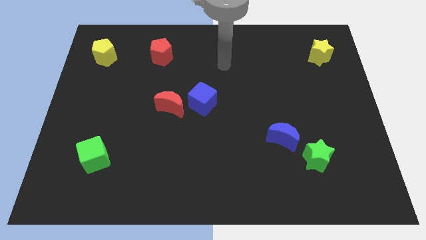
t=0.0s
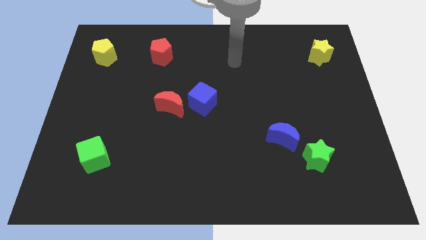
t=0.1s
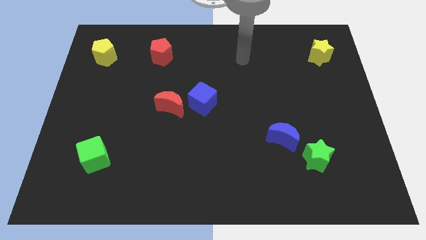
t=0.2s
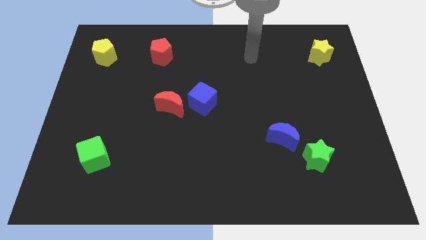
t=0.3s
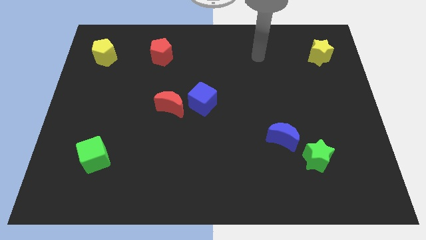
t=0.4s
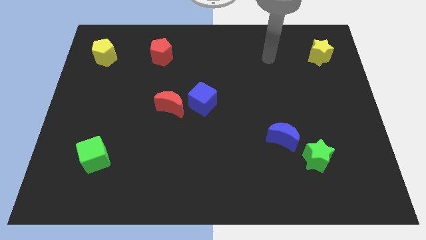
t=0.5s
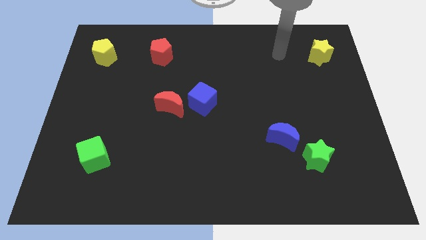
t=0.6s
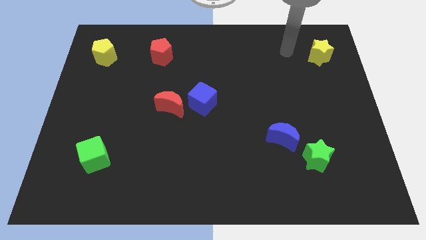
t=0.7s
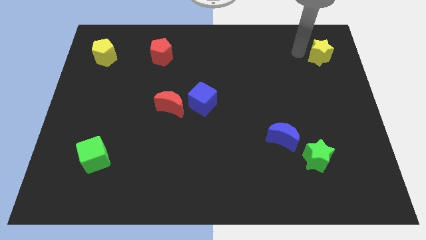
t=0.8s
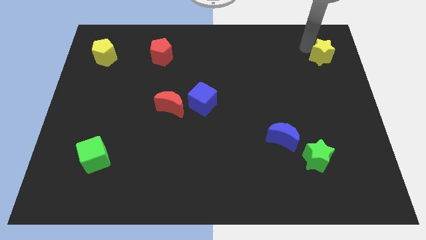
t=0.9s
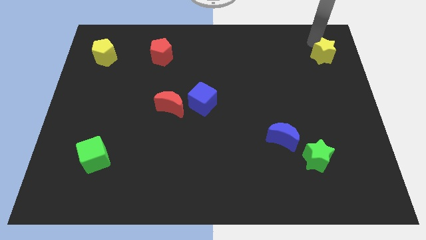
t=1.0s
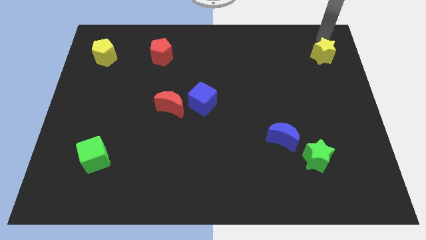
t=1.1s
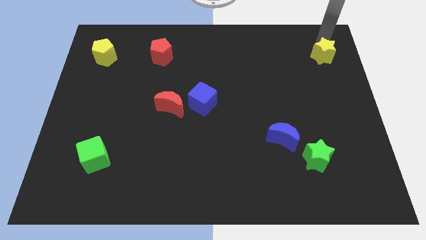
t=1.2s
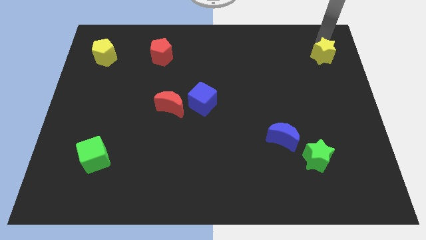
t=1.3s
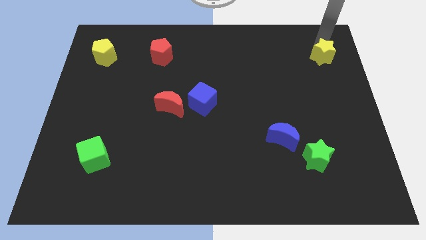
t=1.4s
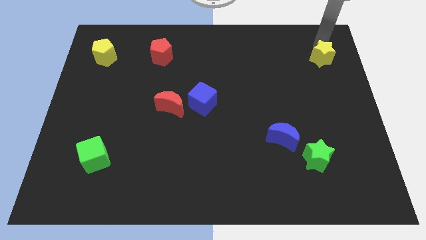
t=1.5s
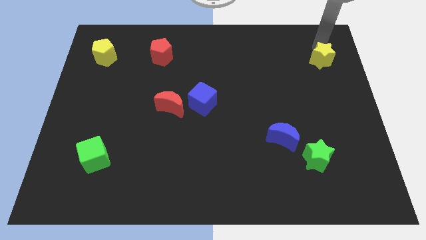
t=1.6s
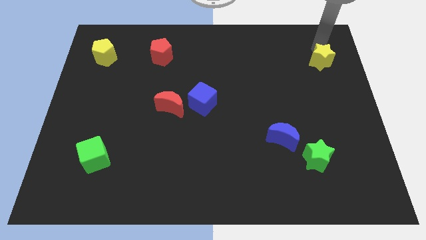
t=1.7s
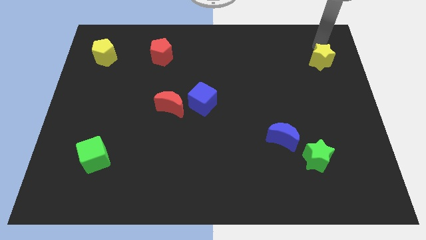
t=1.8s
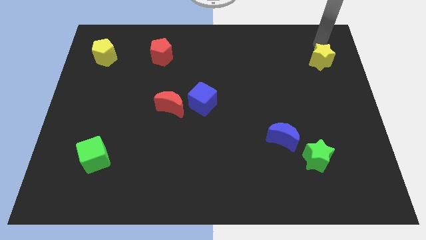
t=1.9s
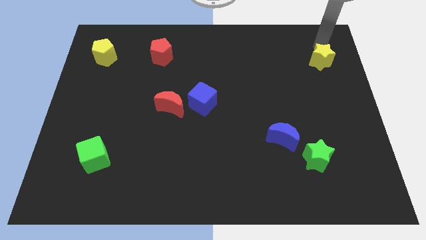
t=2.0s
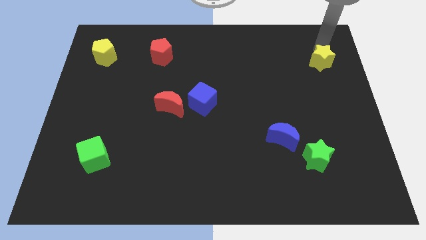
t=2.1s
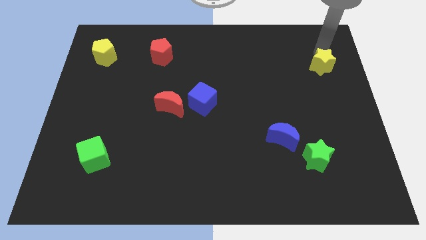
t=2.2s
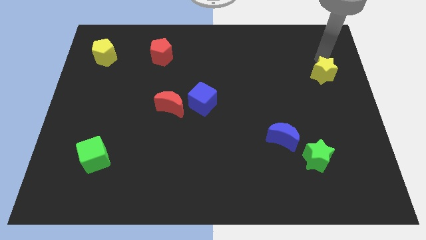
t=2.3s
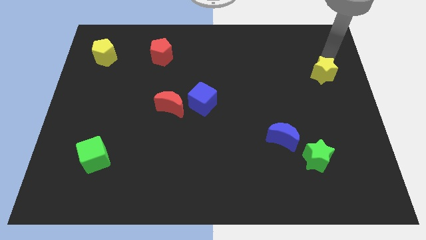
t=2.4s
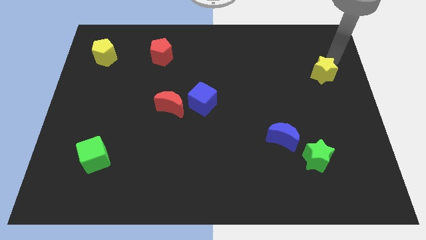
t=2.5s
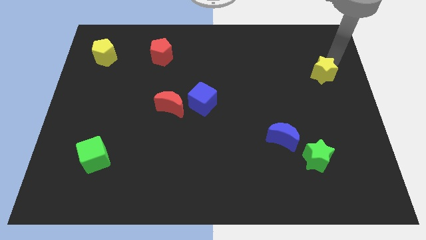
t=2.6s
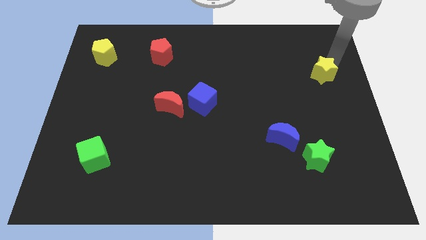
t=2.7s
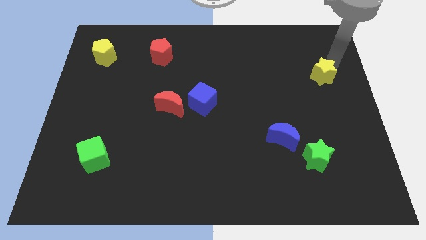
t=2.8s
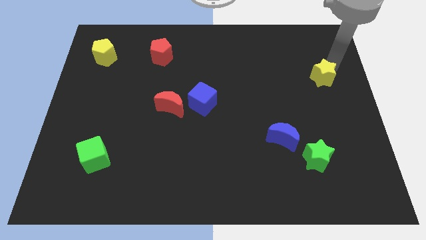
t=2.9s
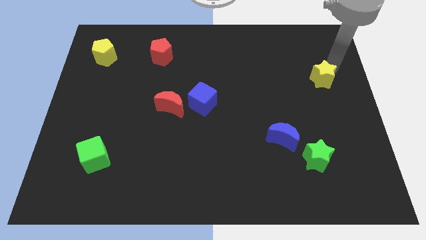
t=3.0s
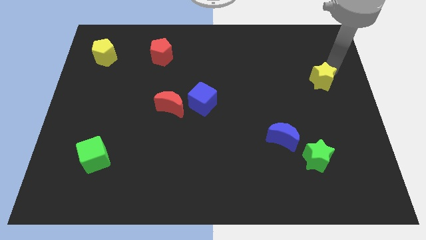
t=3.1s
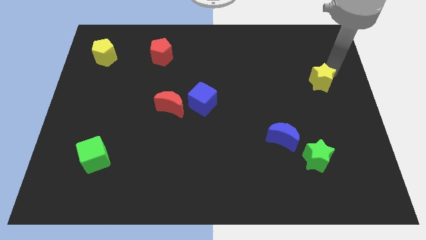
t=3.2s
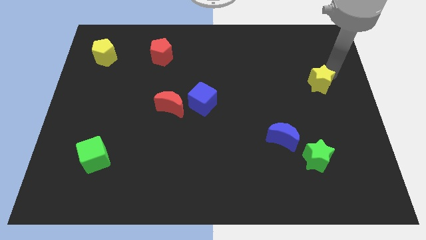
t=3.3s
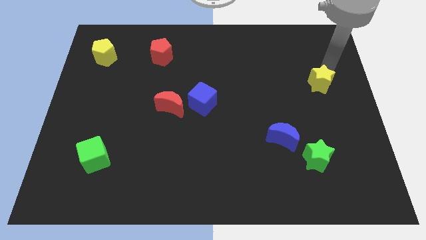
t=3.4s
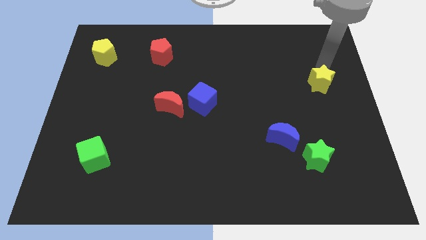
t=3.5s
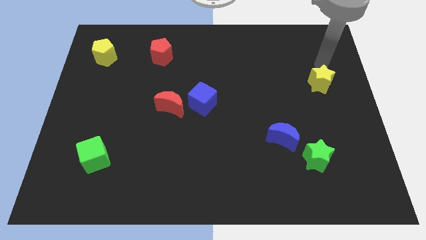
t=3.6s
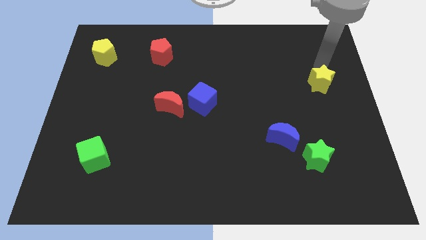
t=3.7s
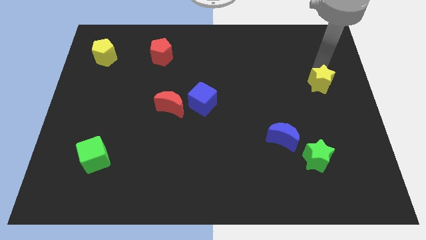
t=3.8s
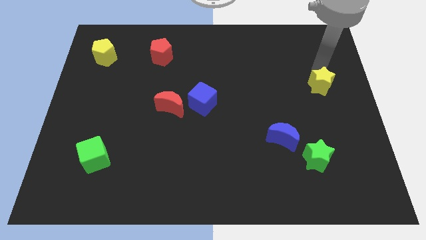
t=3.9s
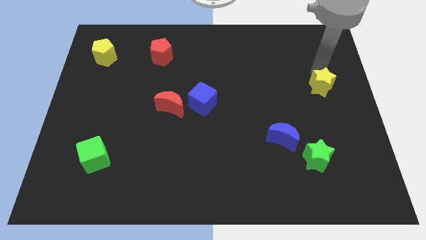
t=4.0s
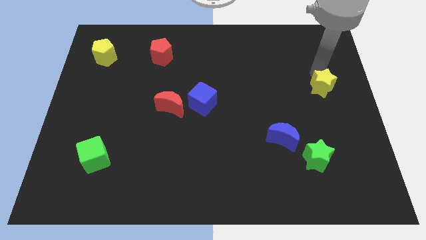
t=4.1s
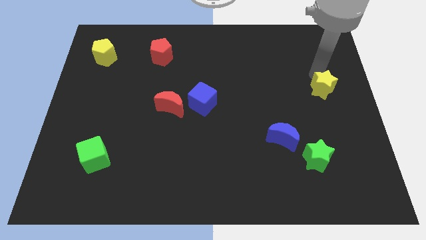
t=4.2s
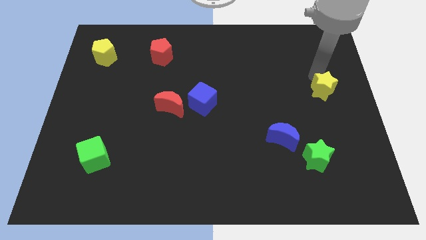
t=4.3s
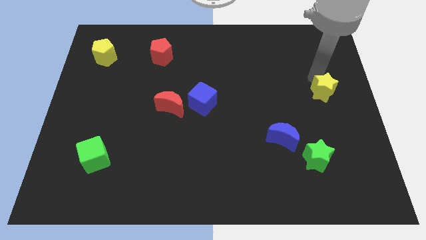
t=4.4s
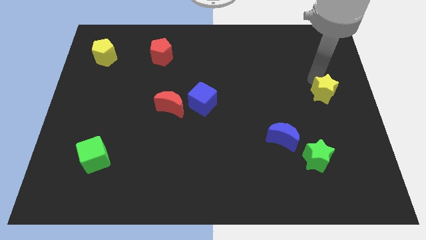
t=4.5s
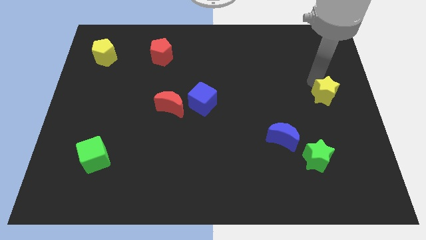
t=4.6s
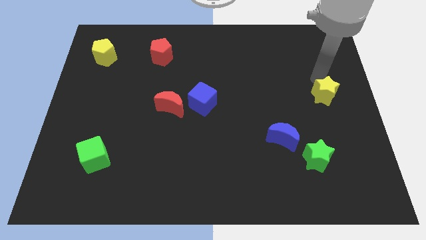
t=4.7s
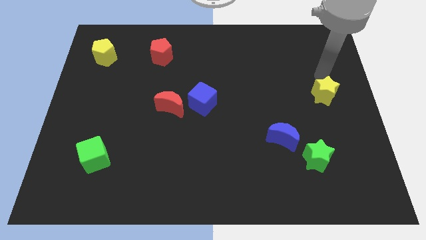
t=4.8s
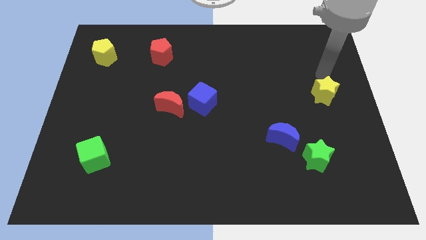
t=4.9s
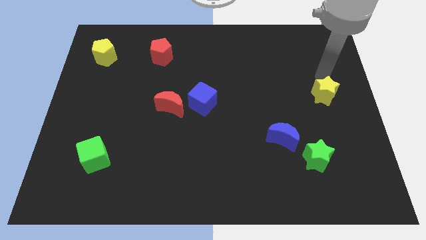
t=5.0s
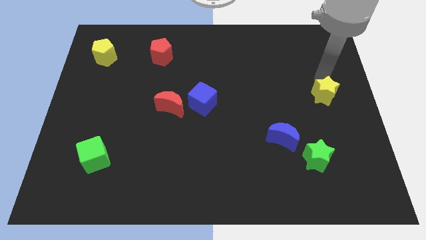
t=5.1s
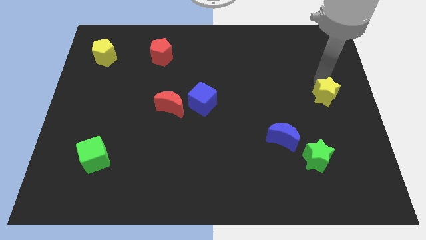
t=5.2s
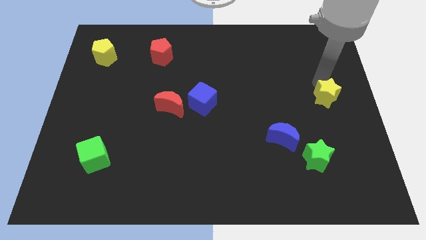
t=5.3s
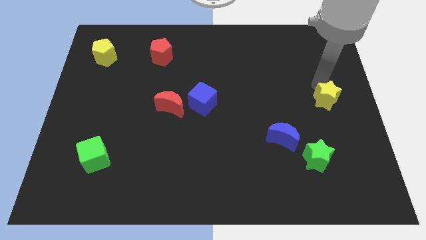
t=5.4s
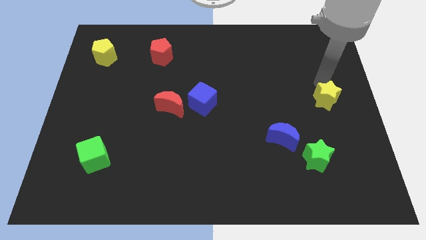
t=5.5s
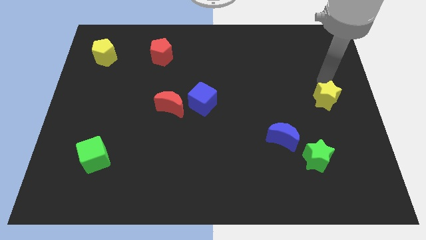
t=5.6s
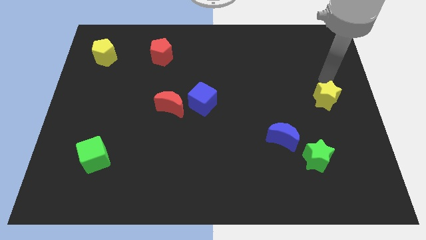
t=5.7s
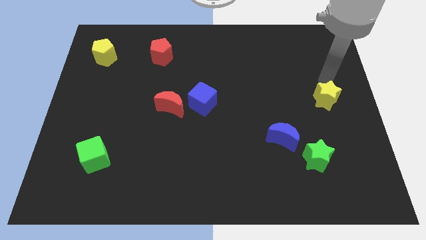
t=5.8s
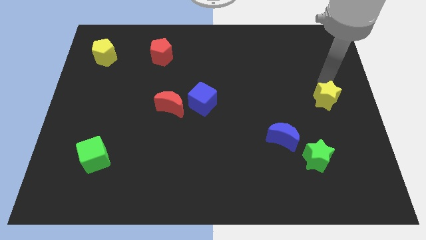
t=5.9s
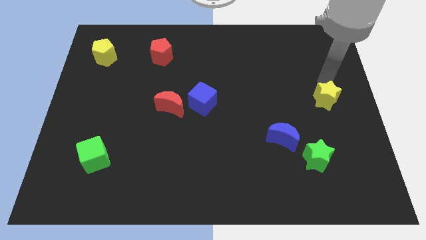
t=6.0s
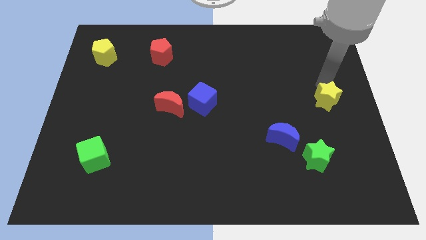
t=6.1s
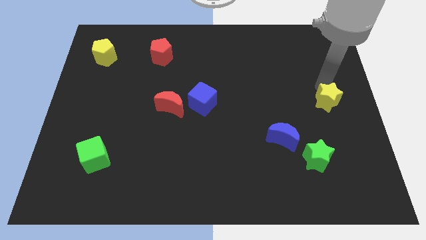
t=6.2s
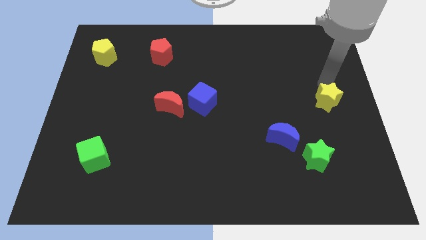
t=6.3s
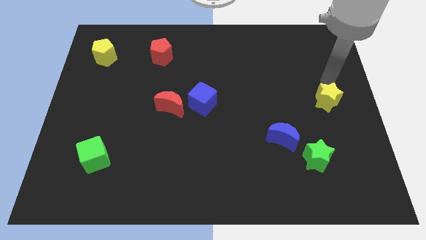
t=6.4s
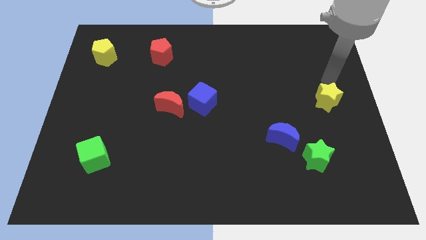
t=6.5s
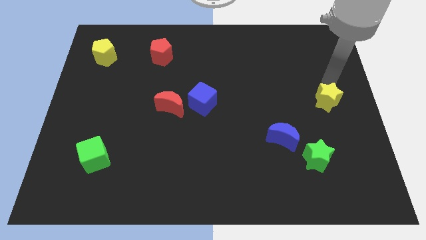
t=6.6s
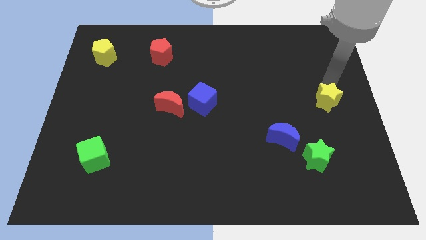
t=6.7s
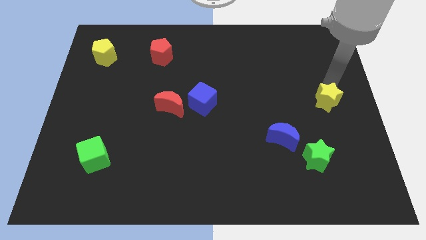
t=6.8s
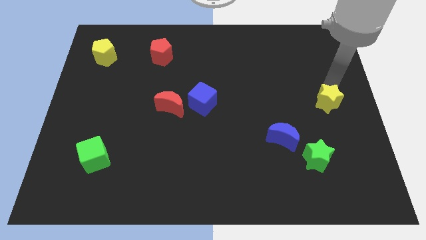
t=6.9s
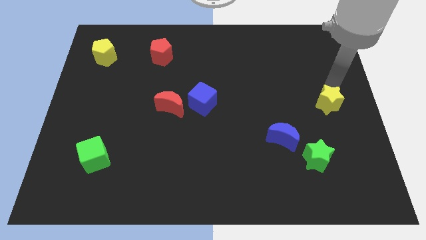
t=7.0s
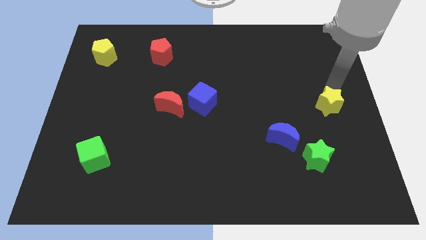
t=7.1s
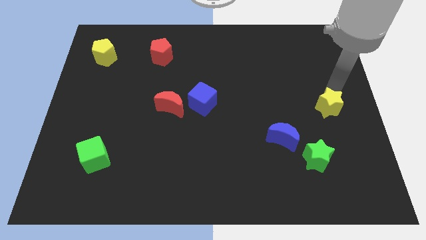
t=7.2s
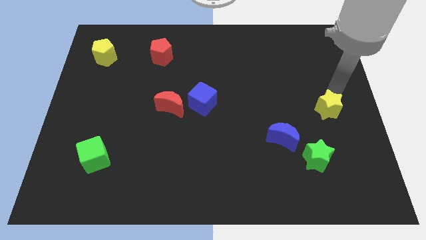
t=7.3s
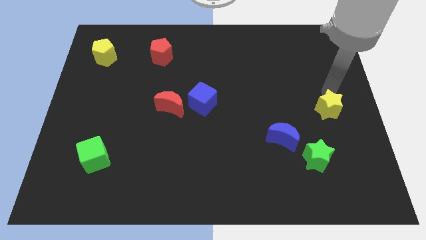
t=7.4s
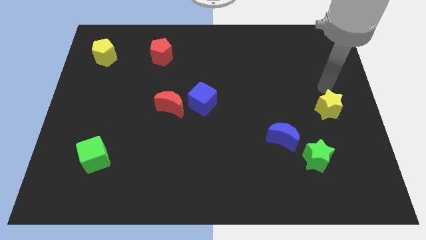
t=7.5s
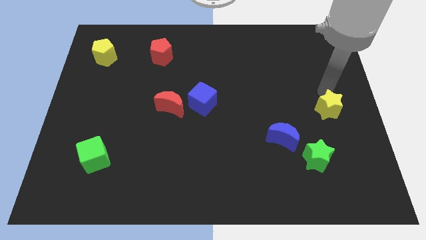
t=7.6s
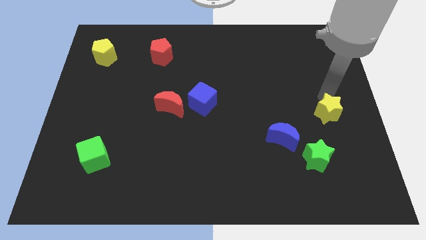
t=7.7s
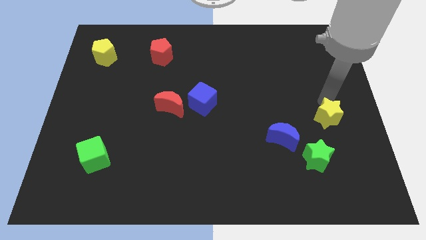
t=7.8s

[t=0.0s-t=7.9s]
slide the yellow star down
